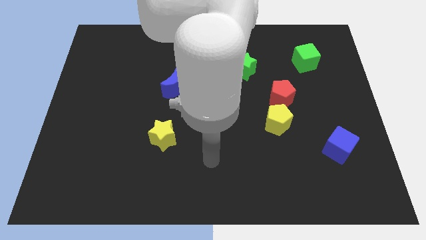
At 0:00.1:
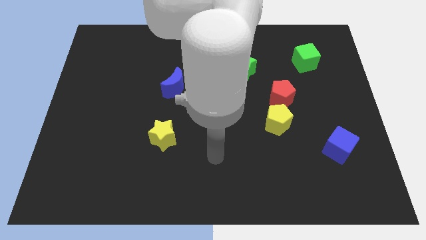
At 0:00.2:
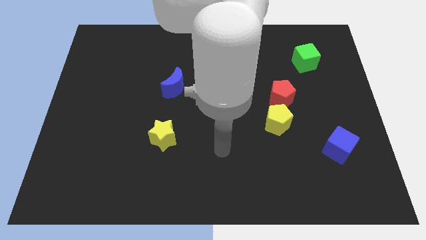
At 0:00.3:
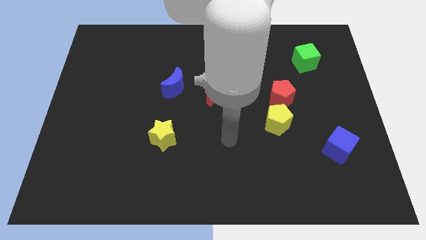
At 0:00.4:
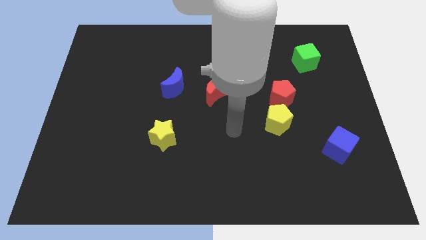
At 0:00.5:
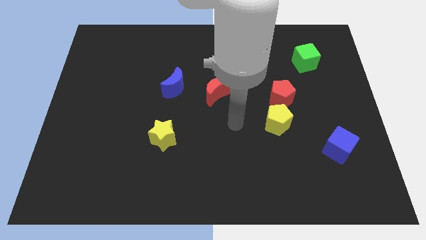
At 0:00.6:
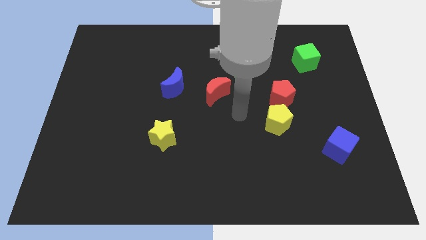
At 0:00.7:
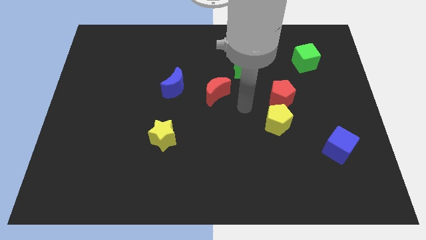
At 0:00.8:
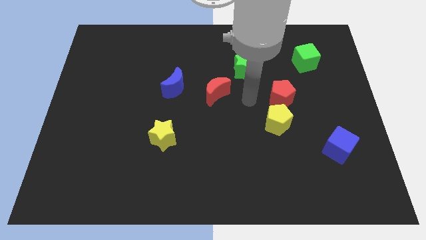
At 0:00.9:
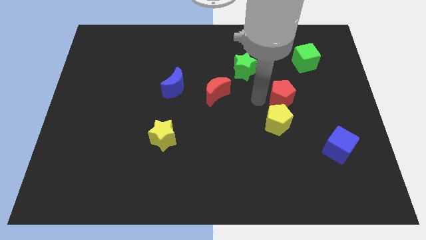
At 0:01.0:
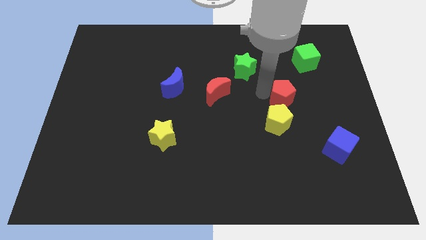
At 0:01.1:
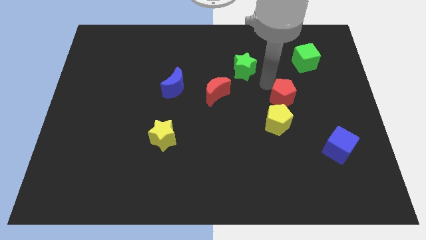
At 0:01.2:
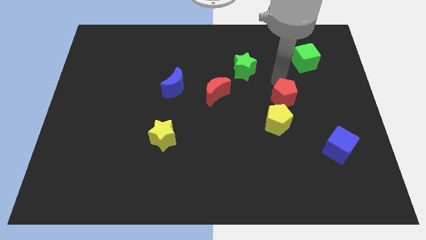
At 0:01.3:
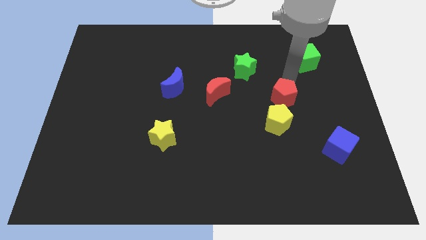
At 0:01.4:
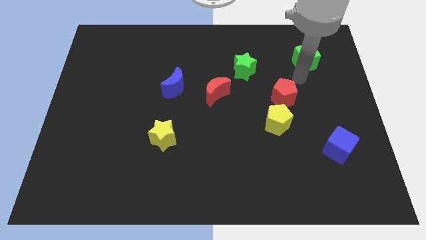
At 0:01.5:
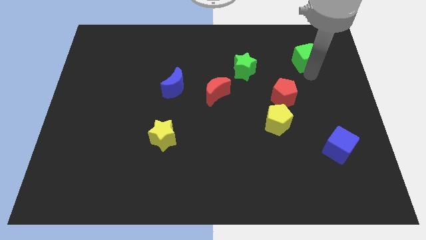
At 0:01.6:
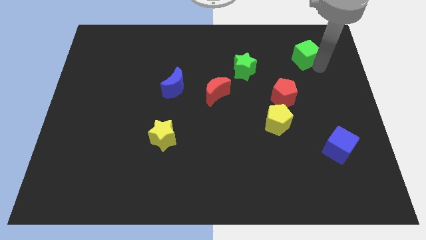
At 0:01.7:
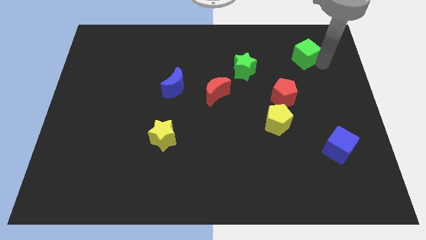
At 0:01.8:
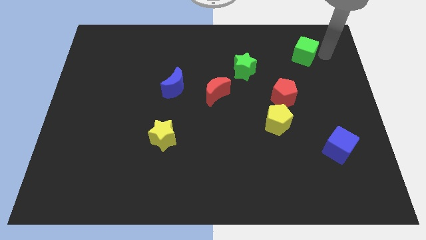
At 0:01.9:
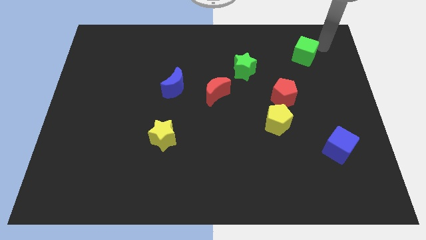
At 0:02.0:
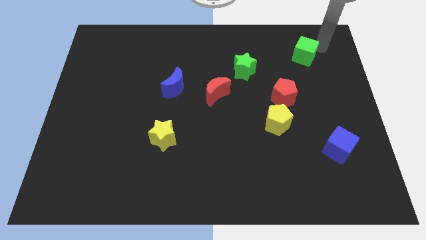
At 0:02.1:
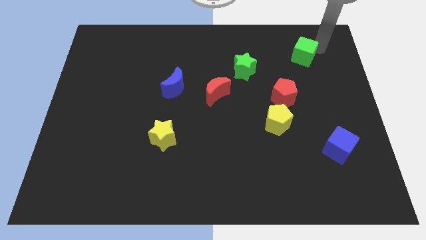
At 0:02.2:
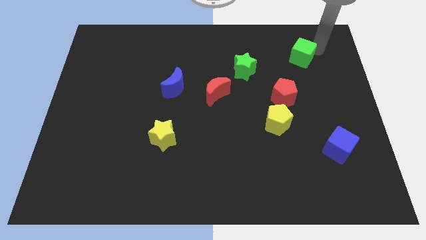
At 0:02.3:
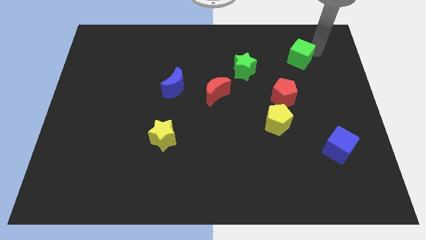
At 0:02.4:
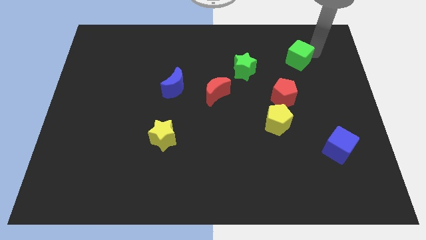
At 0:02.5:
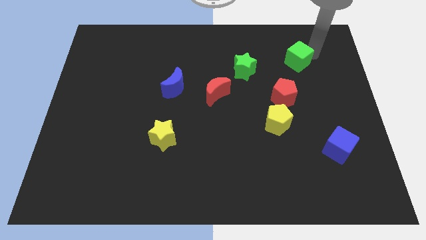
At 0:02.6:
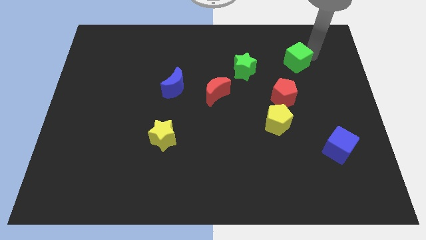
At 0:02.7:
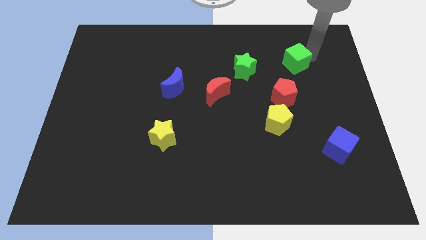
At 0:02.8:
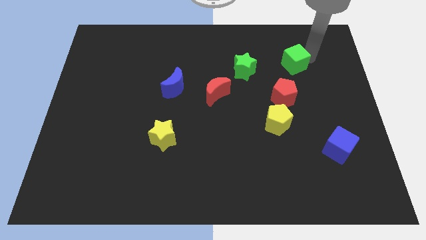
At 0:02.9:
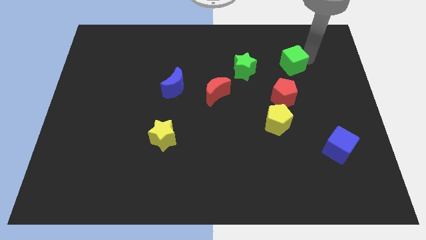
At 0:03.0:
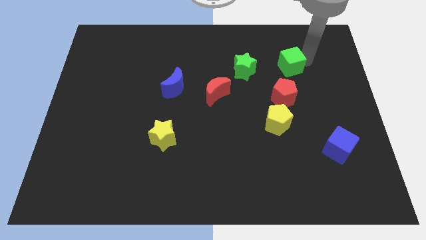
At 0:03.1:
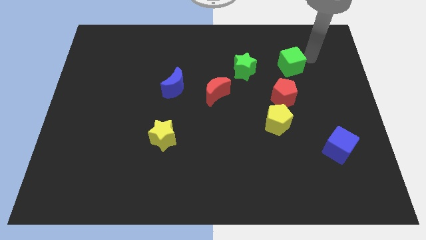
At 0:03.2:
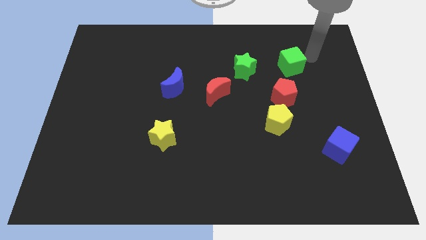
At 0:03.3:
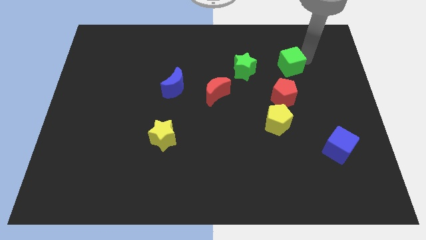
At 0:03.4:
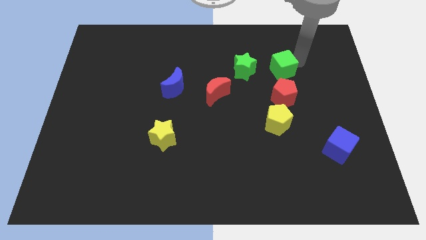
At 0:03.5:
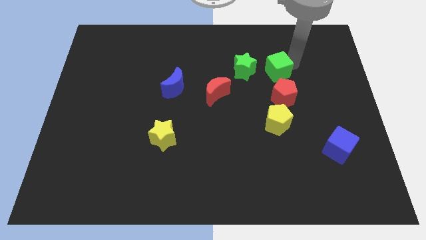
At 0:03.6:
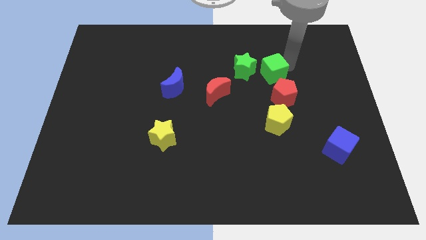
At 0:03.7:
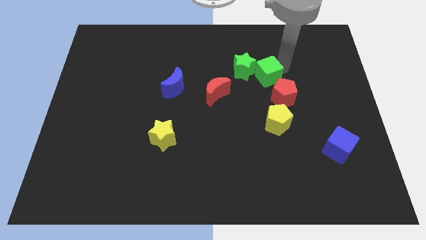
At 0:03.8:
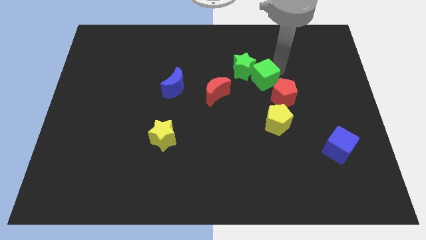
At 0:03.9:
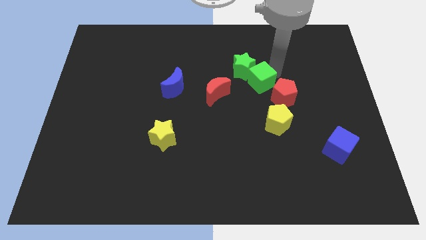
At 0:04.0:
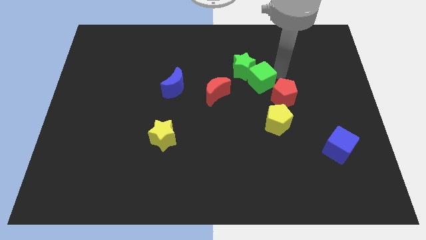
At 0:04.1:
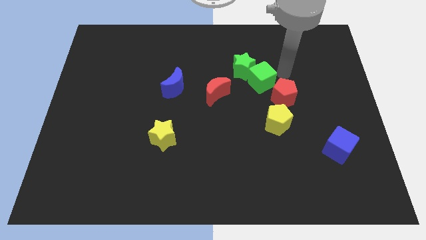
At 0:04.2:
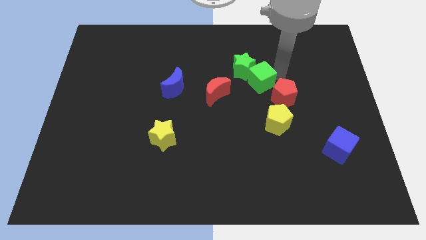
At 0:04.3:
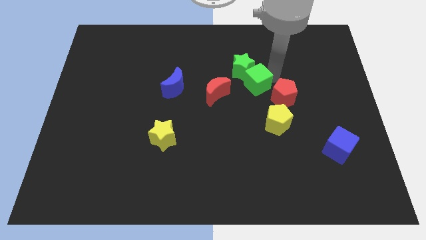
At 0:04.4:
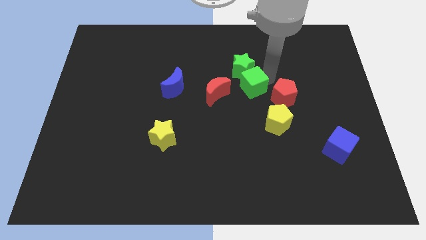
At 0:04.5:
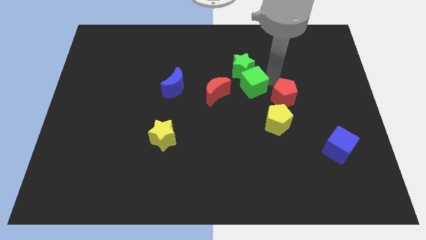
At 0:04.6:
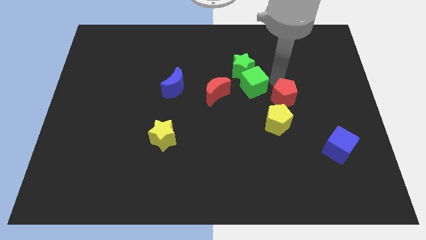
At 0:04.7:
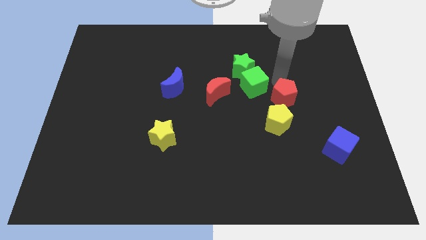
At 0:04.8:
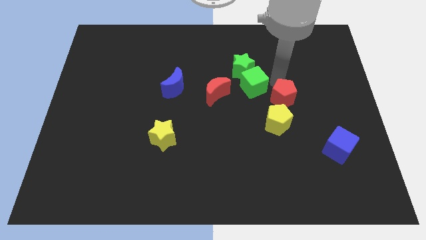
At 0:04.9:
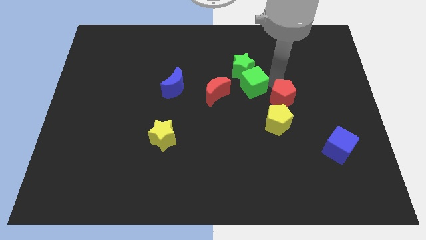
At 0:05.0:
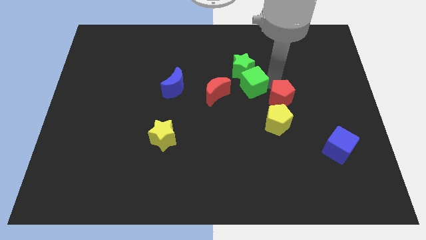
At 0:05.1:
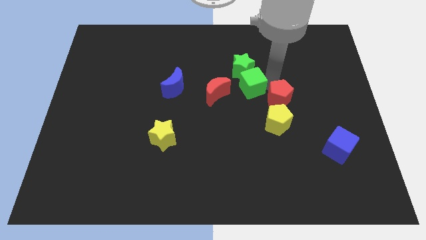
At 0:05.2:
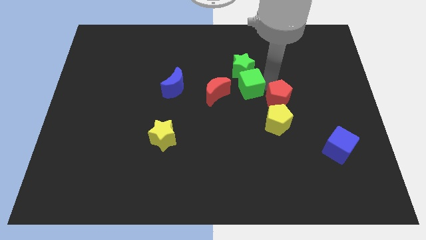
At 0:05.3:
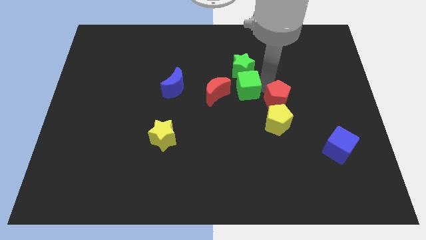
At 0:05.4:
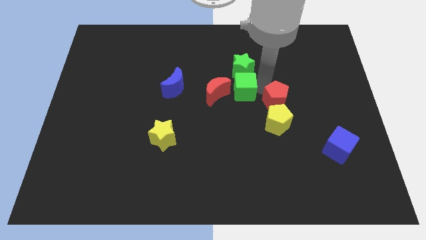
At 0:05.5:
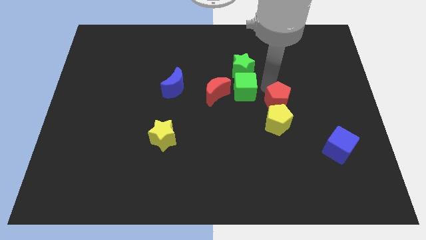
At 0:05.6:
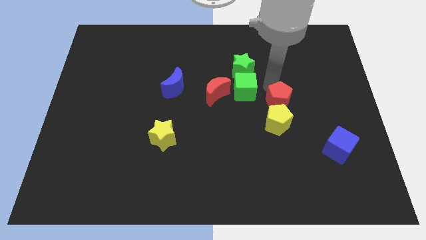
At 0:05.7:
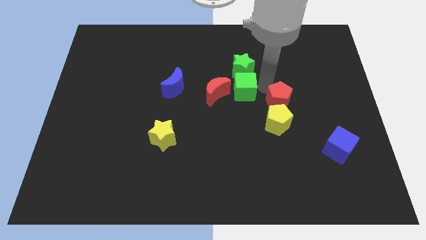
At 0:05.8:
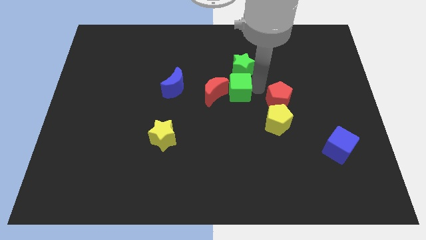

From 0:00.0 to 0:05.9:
push the green cube to the red moon

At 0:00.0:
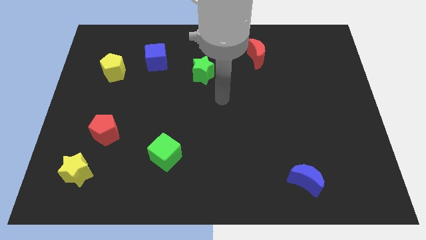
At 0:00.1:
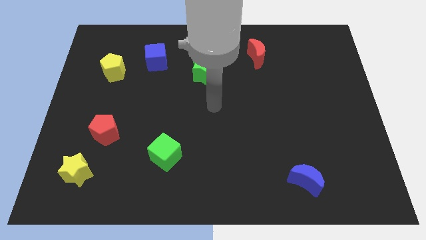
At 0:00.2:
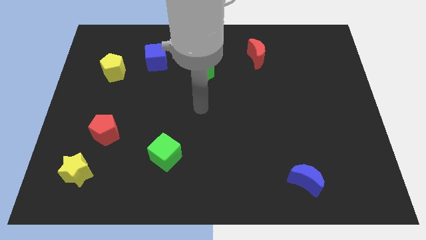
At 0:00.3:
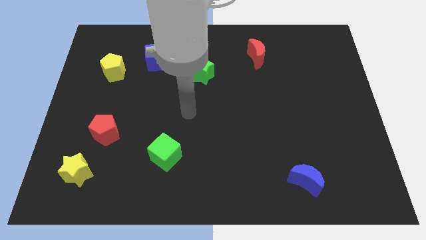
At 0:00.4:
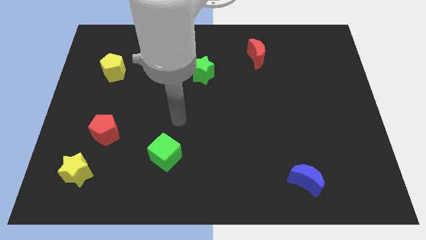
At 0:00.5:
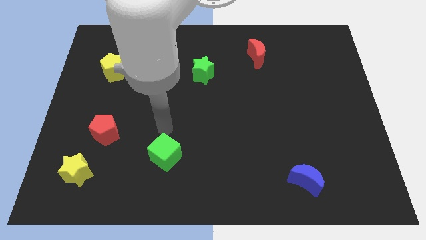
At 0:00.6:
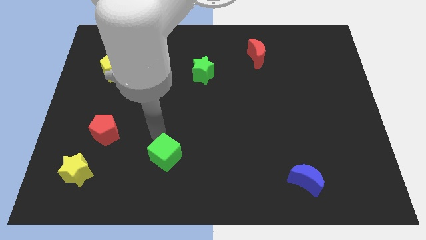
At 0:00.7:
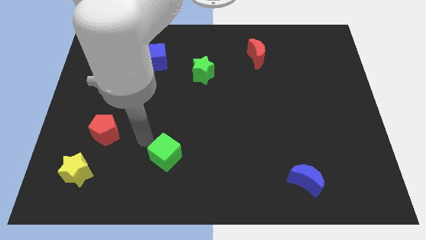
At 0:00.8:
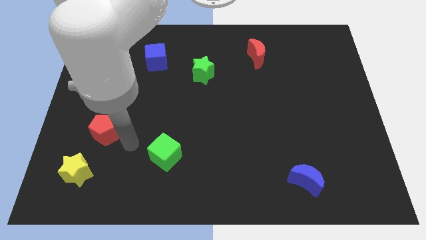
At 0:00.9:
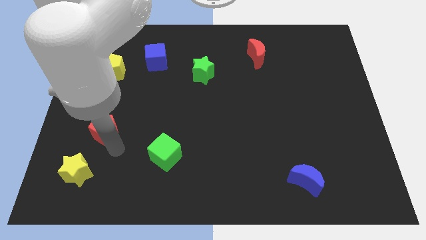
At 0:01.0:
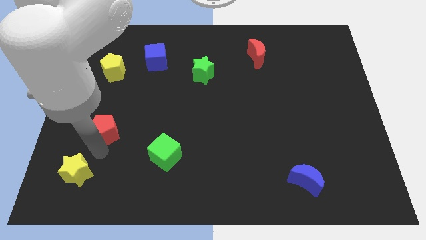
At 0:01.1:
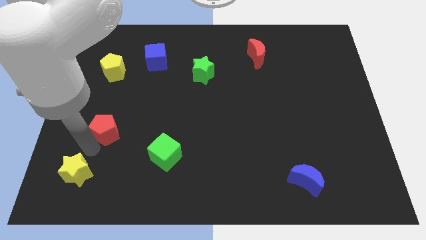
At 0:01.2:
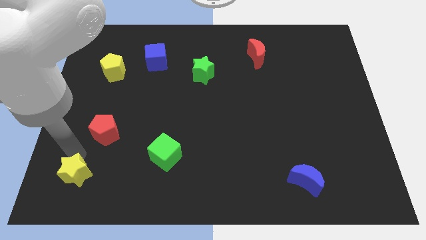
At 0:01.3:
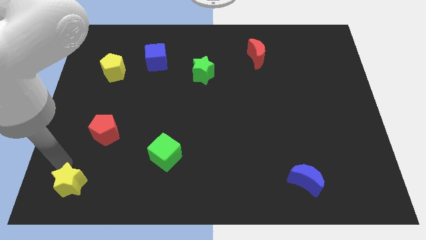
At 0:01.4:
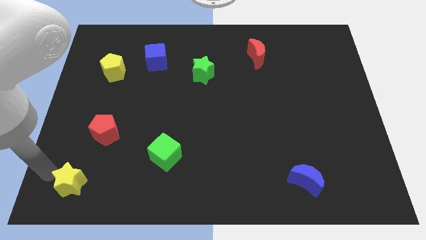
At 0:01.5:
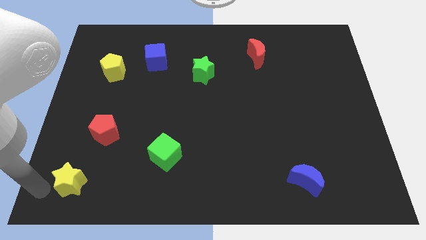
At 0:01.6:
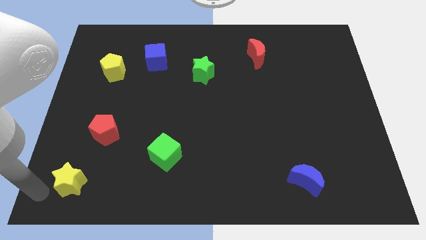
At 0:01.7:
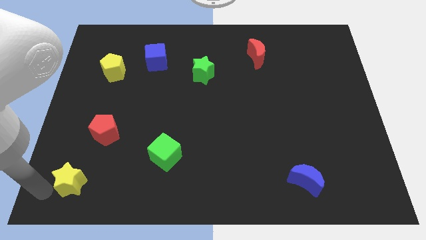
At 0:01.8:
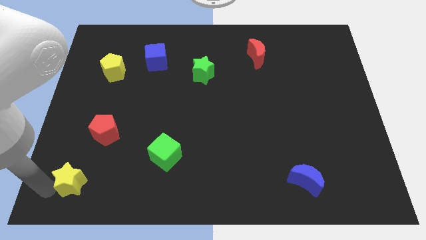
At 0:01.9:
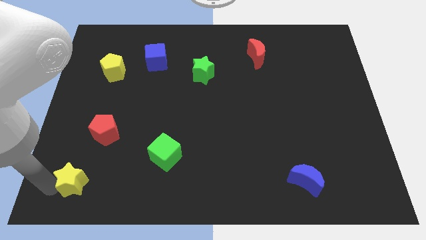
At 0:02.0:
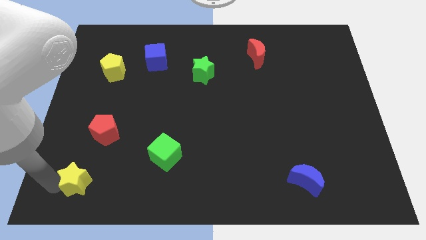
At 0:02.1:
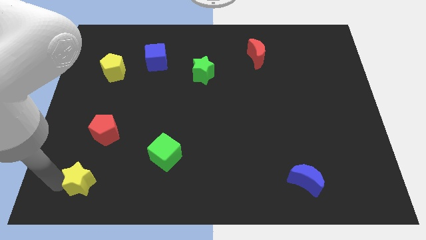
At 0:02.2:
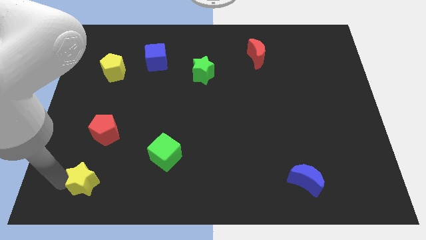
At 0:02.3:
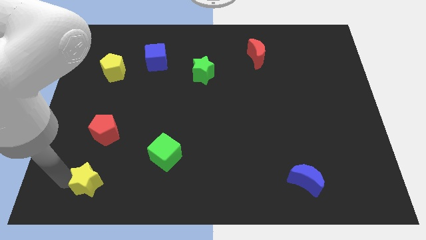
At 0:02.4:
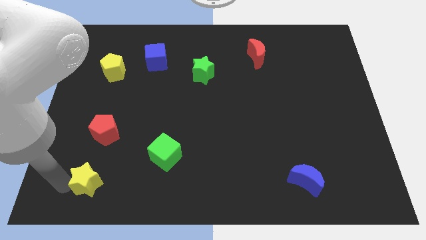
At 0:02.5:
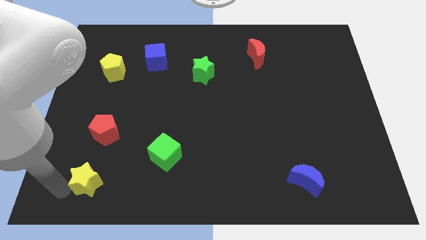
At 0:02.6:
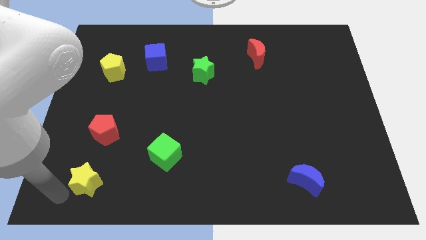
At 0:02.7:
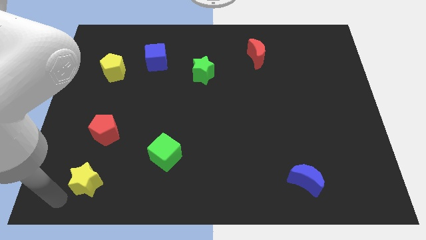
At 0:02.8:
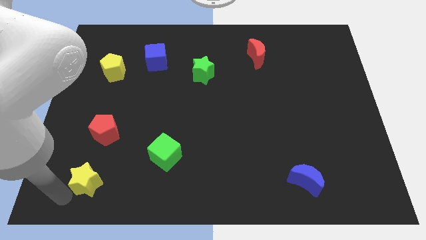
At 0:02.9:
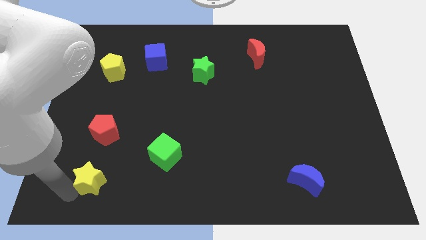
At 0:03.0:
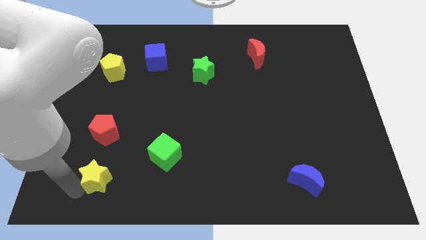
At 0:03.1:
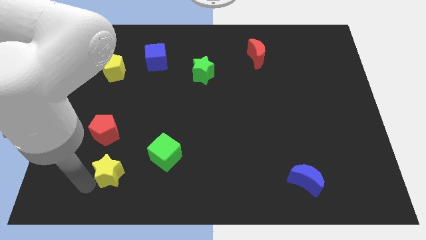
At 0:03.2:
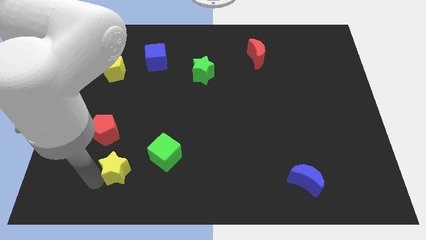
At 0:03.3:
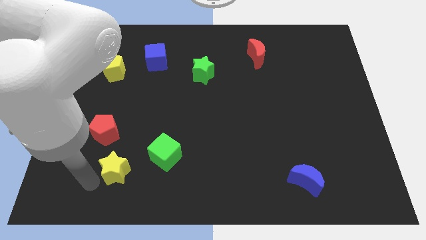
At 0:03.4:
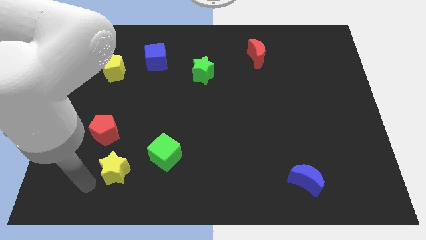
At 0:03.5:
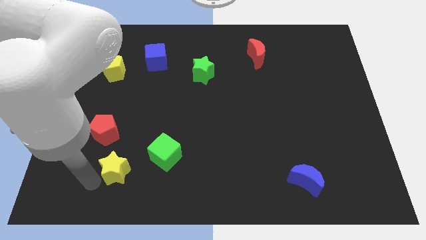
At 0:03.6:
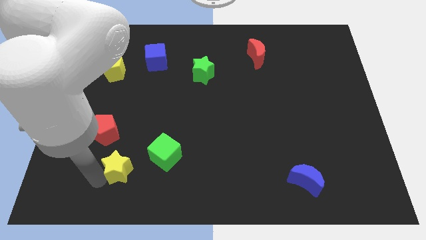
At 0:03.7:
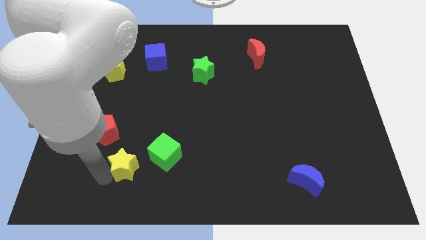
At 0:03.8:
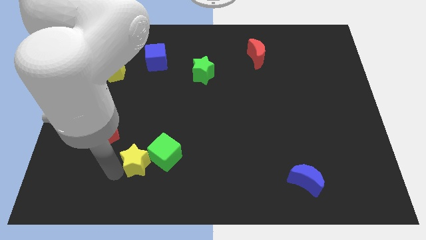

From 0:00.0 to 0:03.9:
slide the yellow star next to the green cube
